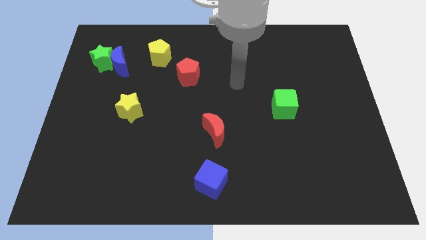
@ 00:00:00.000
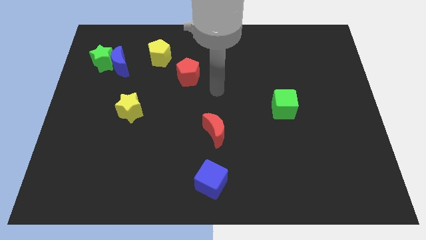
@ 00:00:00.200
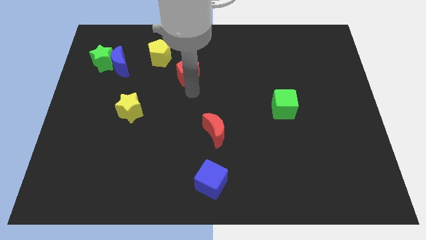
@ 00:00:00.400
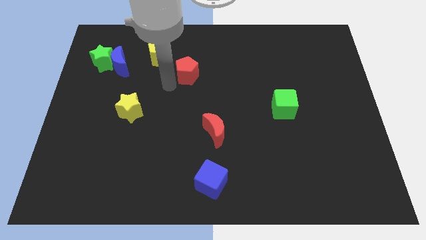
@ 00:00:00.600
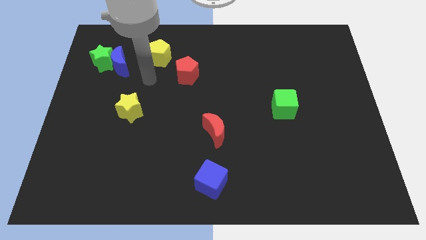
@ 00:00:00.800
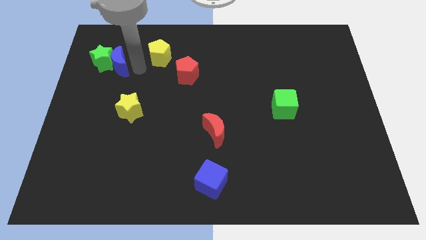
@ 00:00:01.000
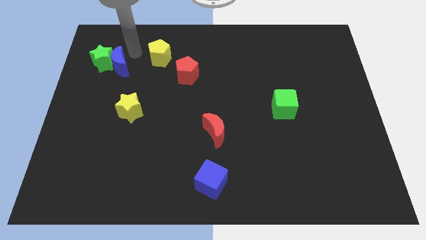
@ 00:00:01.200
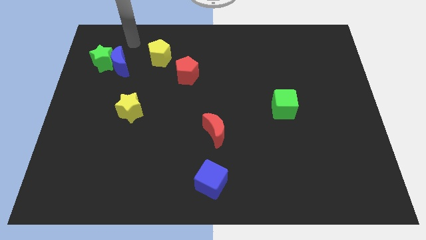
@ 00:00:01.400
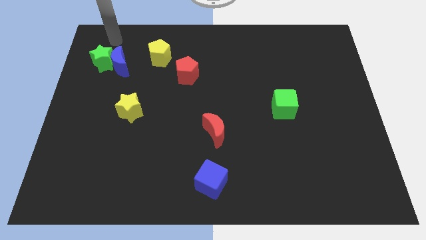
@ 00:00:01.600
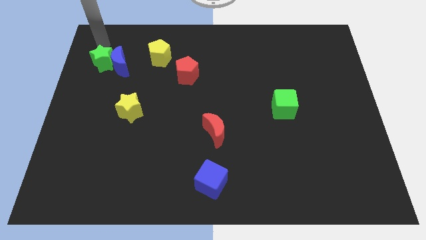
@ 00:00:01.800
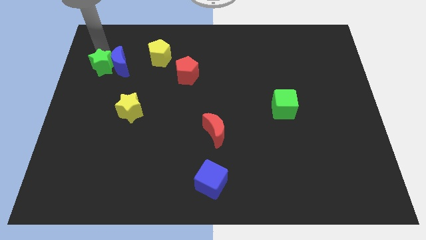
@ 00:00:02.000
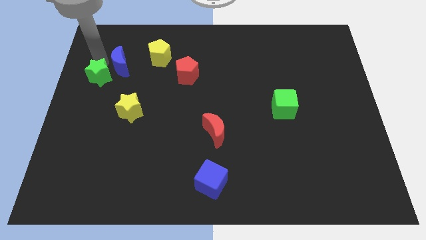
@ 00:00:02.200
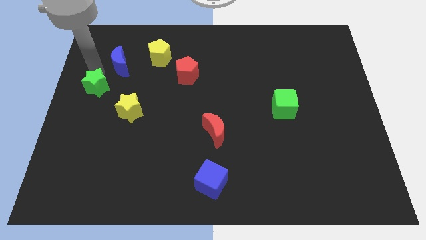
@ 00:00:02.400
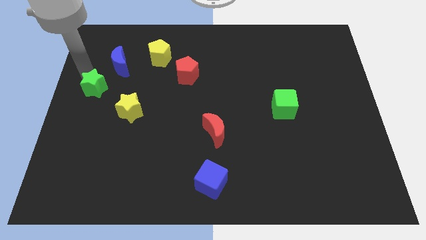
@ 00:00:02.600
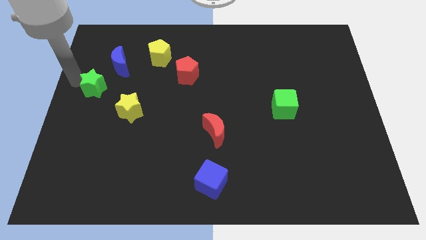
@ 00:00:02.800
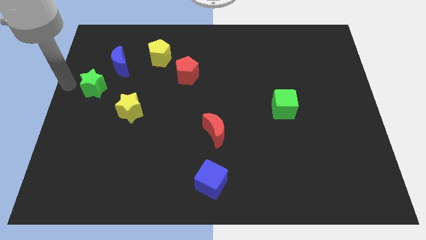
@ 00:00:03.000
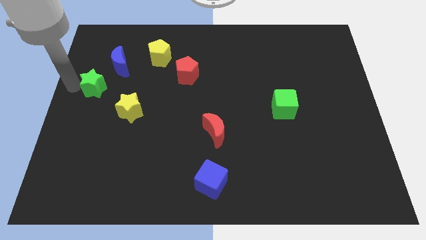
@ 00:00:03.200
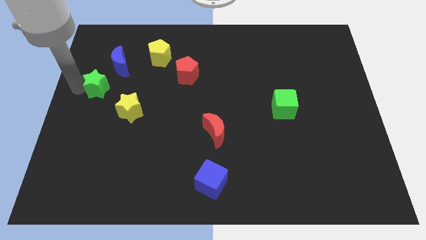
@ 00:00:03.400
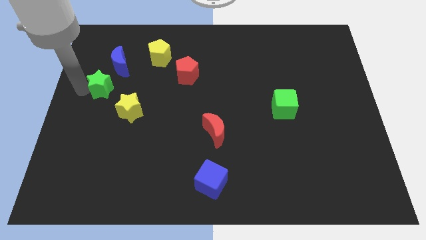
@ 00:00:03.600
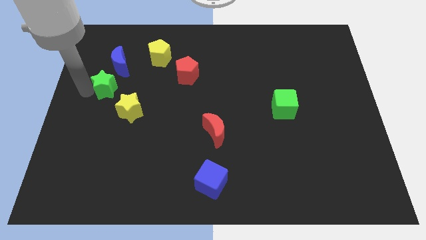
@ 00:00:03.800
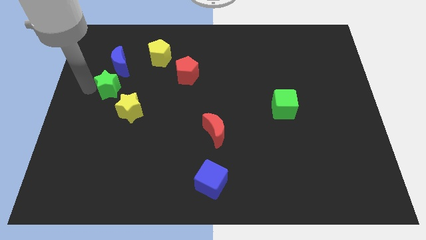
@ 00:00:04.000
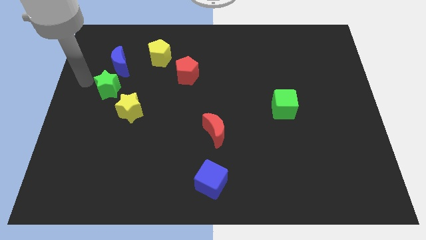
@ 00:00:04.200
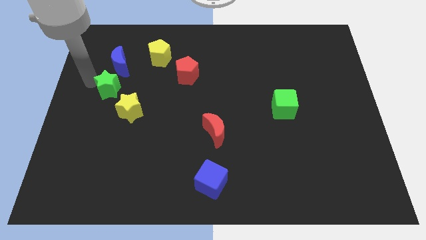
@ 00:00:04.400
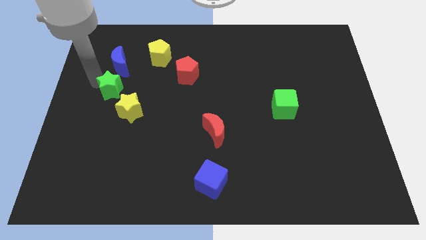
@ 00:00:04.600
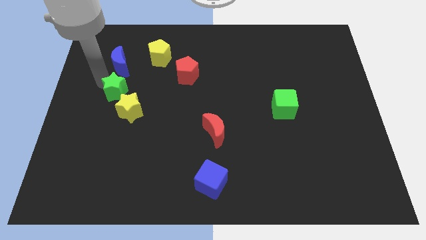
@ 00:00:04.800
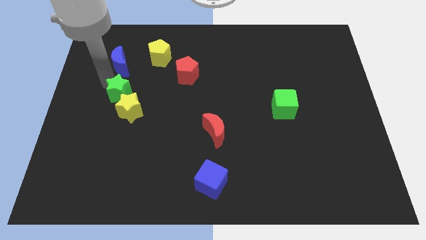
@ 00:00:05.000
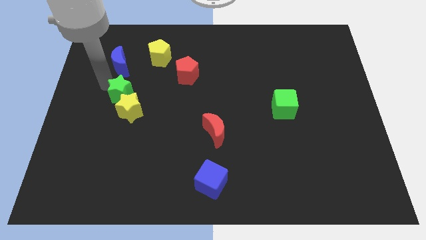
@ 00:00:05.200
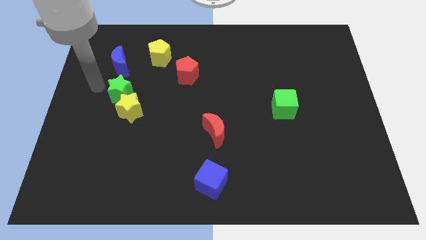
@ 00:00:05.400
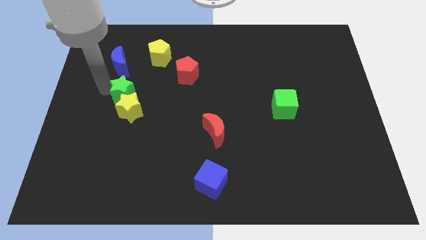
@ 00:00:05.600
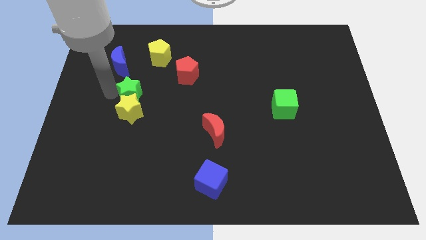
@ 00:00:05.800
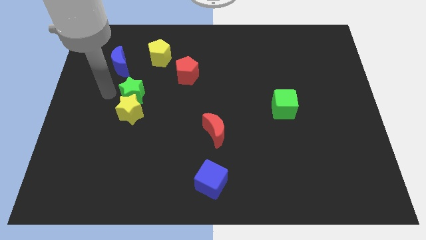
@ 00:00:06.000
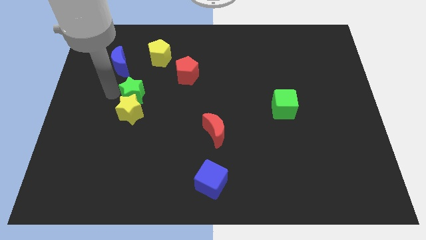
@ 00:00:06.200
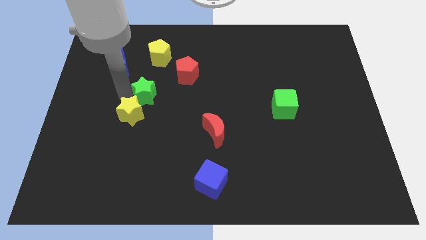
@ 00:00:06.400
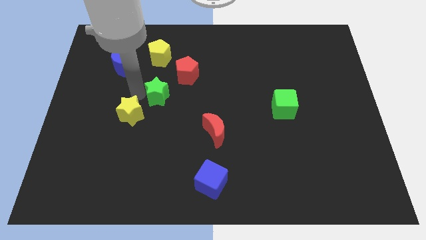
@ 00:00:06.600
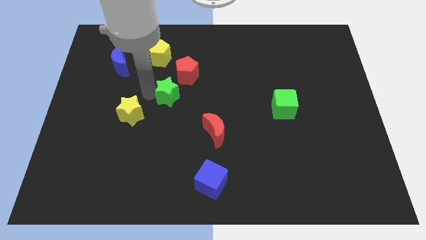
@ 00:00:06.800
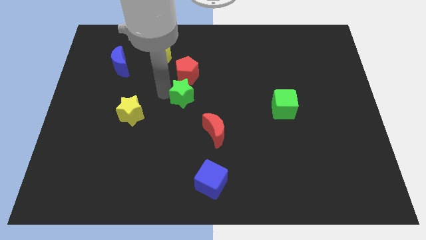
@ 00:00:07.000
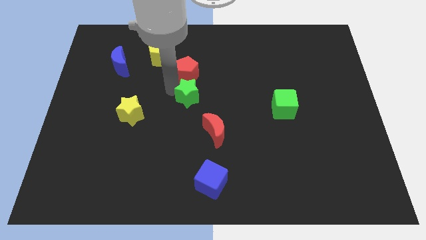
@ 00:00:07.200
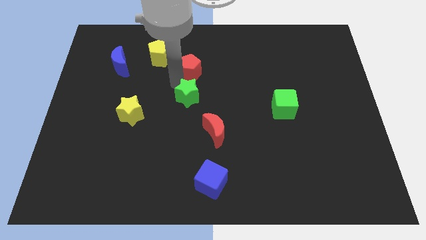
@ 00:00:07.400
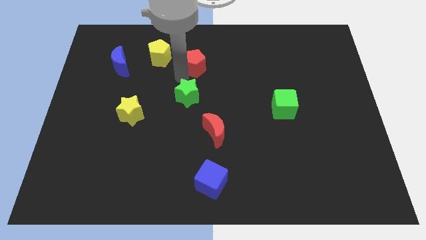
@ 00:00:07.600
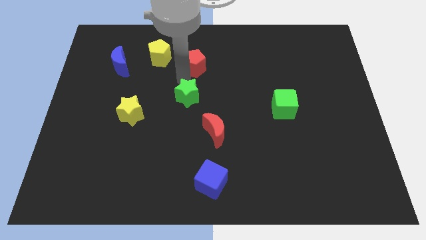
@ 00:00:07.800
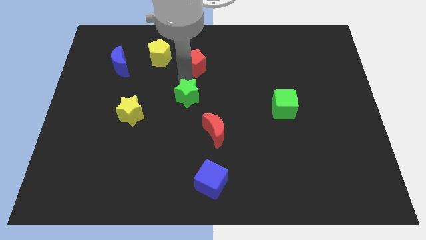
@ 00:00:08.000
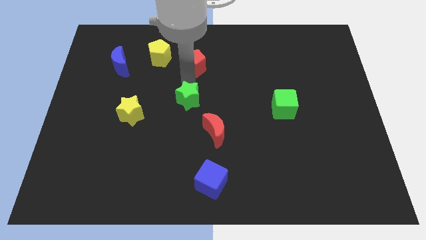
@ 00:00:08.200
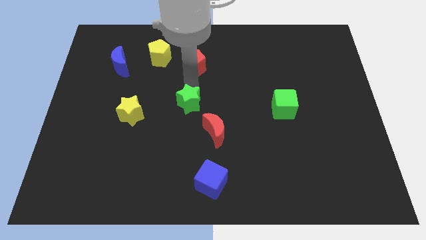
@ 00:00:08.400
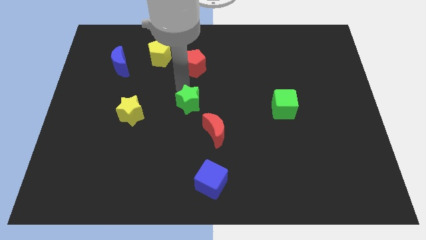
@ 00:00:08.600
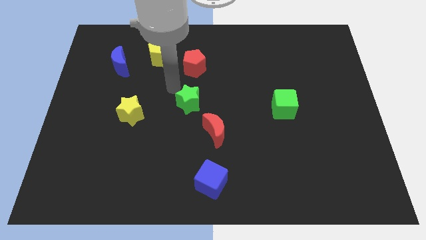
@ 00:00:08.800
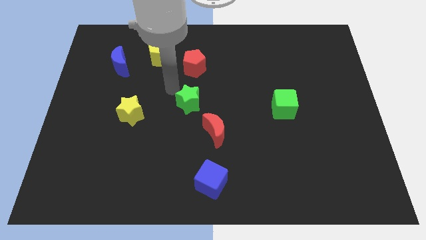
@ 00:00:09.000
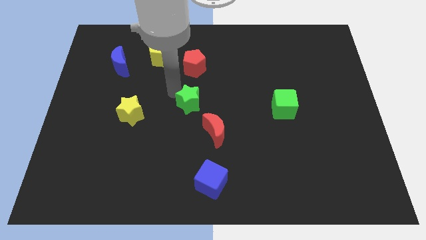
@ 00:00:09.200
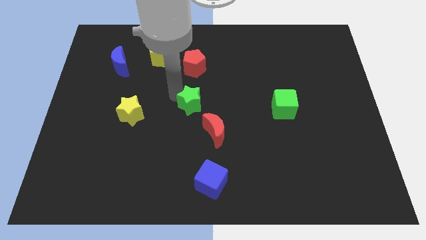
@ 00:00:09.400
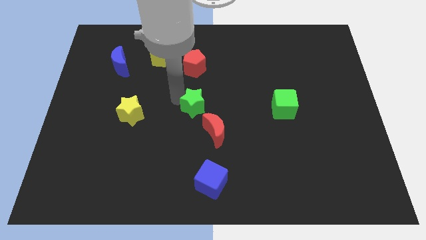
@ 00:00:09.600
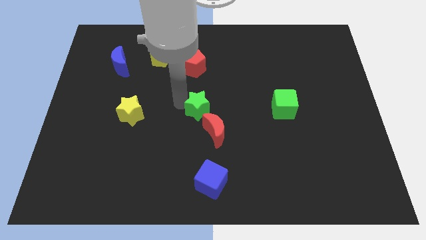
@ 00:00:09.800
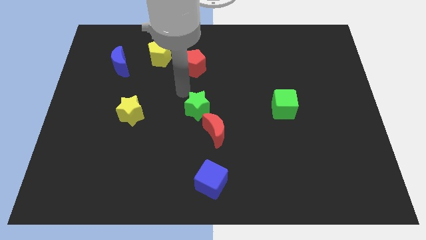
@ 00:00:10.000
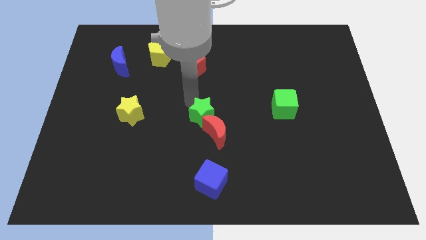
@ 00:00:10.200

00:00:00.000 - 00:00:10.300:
push the green star towards the red moon

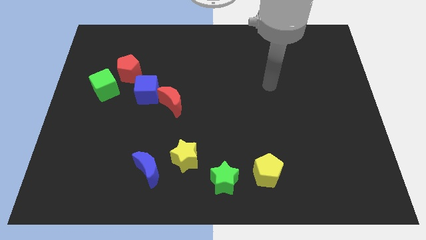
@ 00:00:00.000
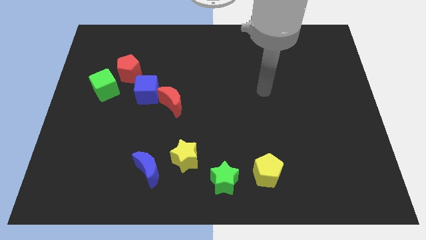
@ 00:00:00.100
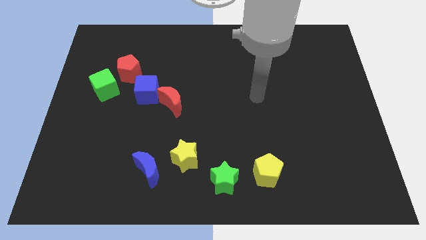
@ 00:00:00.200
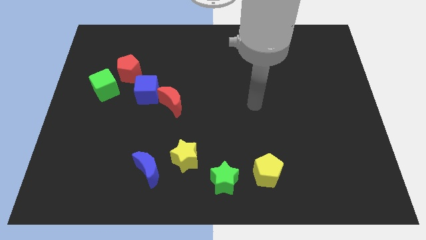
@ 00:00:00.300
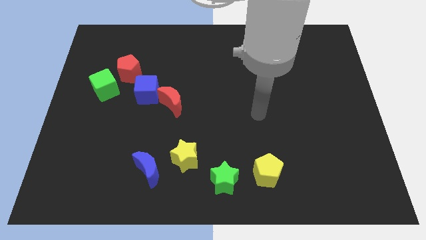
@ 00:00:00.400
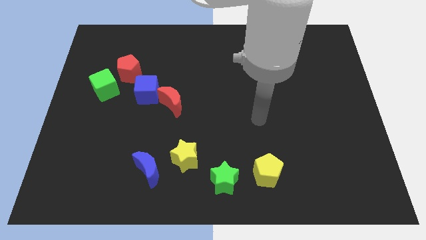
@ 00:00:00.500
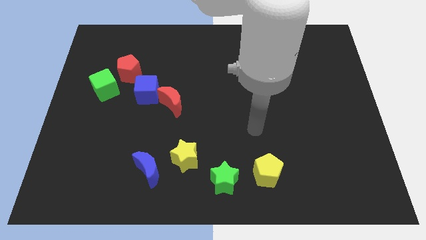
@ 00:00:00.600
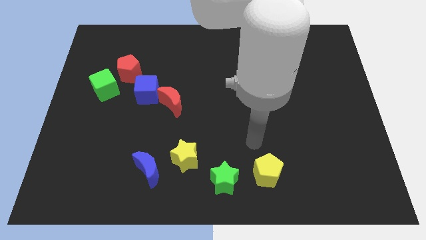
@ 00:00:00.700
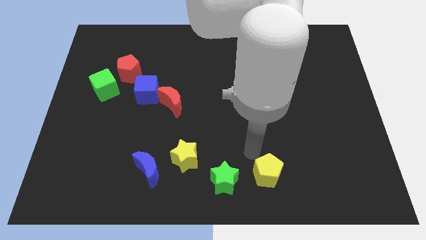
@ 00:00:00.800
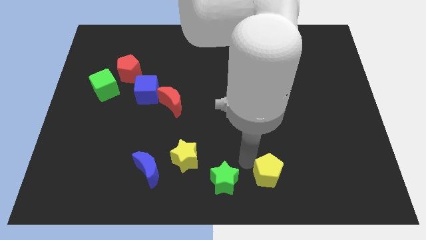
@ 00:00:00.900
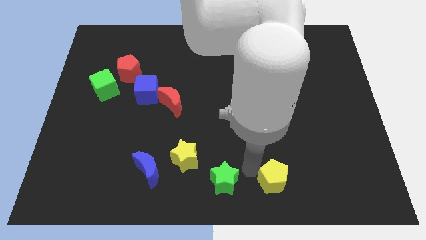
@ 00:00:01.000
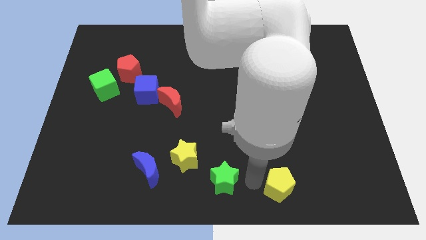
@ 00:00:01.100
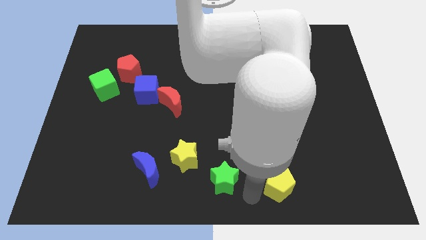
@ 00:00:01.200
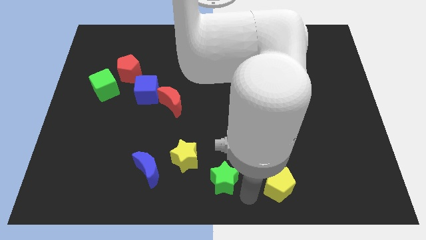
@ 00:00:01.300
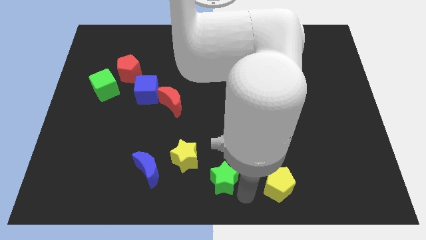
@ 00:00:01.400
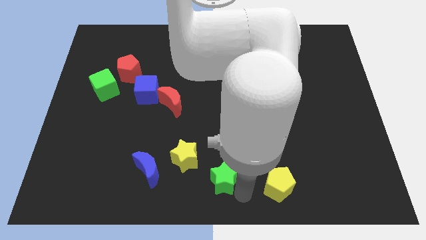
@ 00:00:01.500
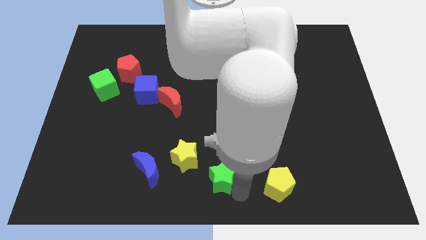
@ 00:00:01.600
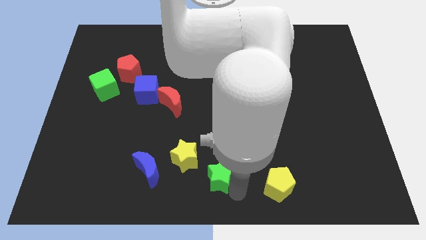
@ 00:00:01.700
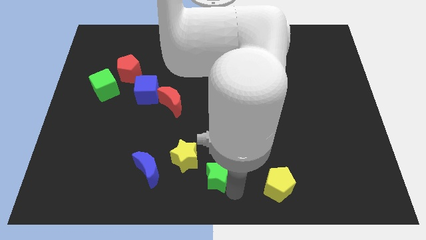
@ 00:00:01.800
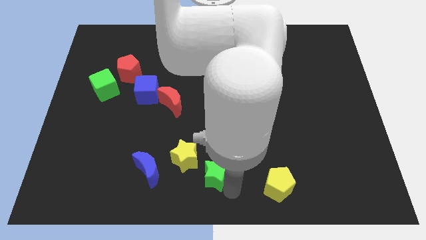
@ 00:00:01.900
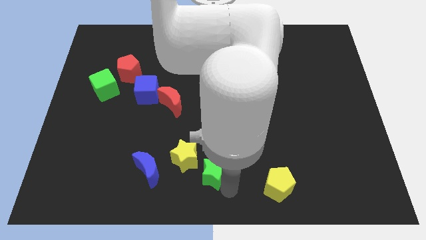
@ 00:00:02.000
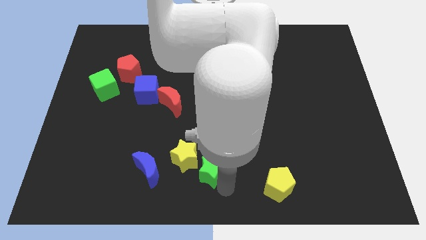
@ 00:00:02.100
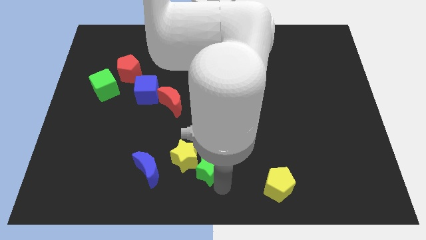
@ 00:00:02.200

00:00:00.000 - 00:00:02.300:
move the green star close to the yellow star

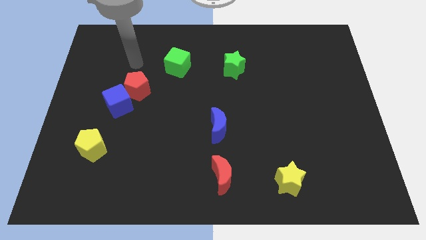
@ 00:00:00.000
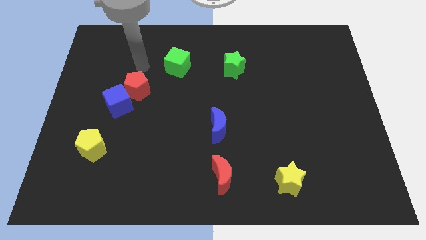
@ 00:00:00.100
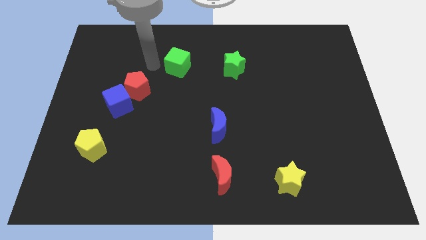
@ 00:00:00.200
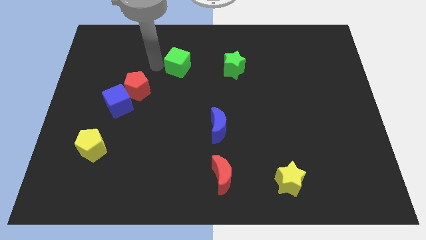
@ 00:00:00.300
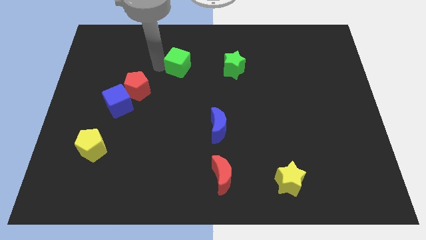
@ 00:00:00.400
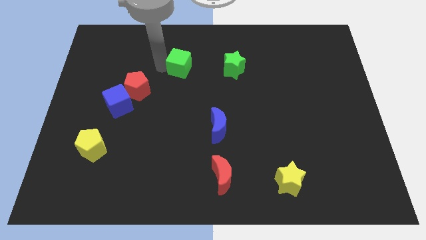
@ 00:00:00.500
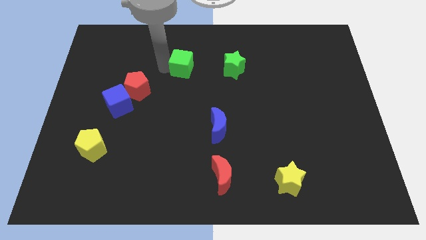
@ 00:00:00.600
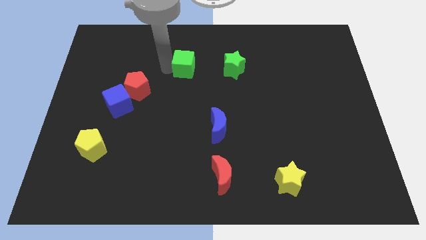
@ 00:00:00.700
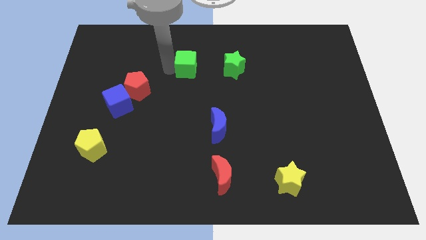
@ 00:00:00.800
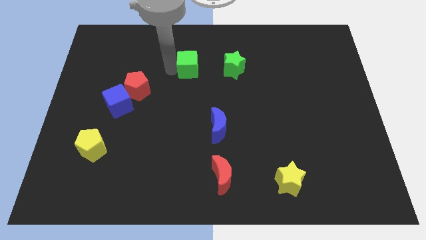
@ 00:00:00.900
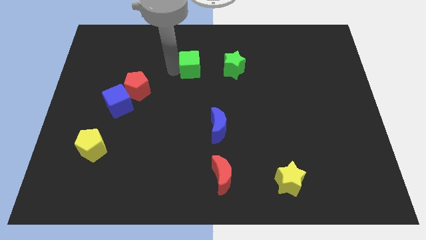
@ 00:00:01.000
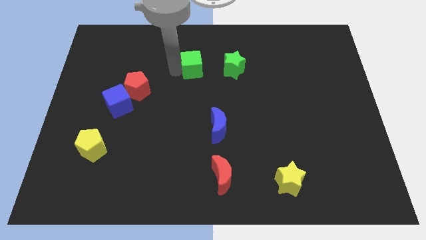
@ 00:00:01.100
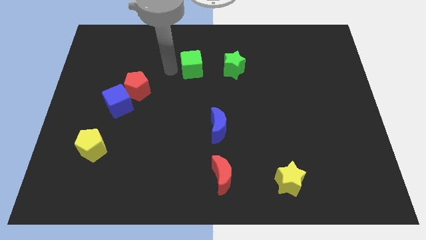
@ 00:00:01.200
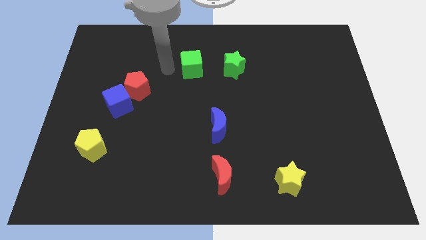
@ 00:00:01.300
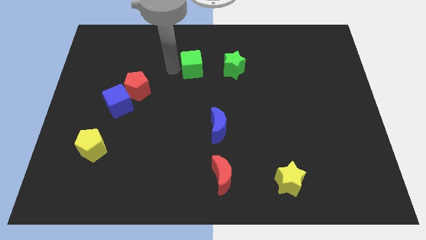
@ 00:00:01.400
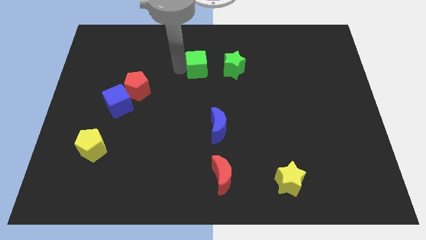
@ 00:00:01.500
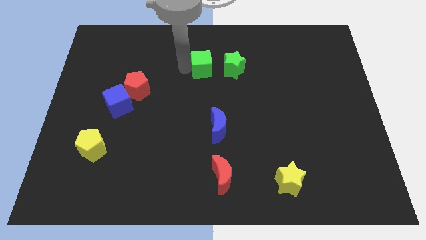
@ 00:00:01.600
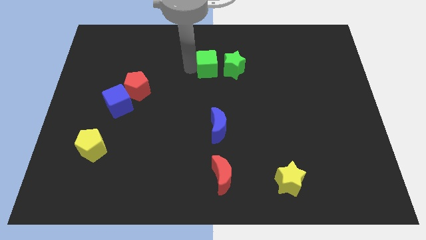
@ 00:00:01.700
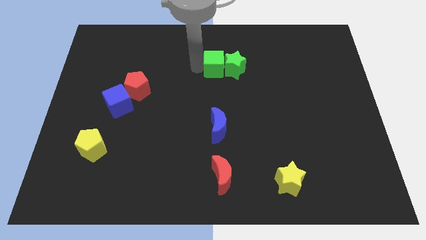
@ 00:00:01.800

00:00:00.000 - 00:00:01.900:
move the green cube to the green star
